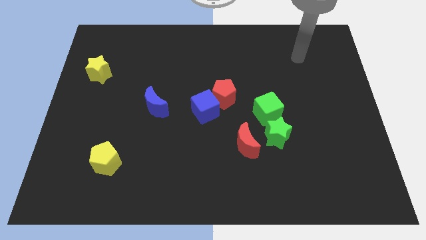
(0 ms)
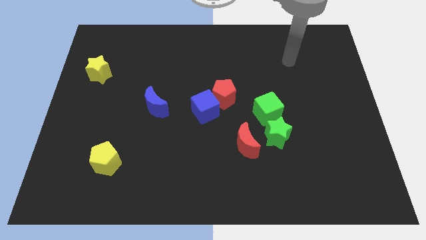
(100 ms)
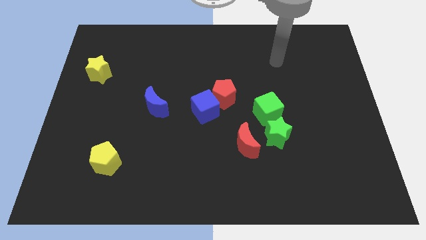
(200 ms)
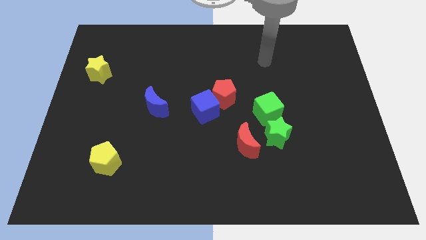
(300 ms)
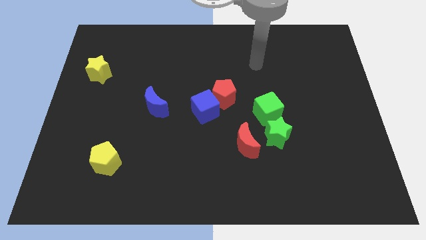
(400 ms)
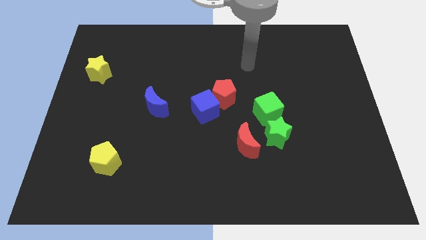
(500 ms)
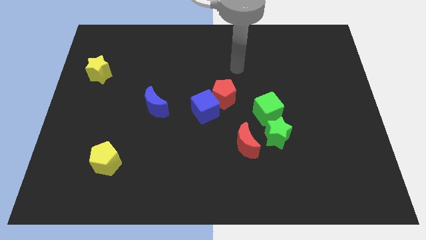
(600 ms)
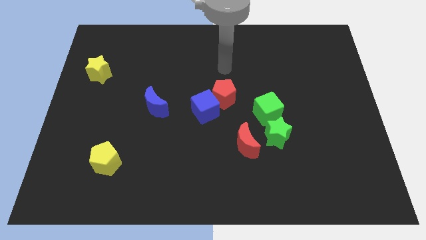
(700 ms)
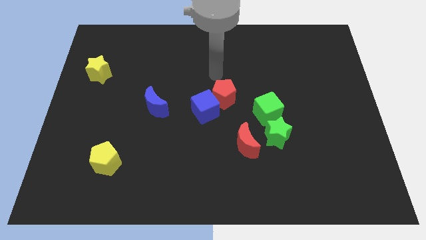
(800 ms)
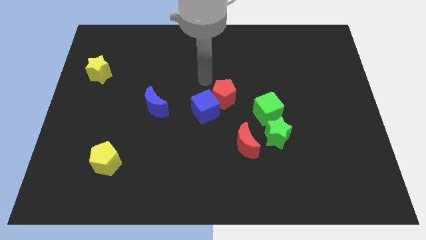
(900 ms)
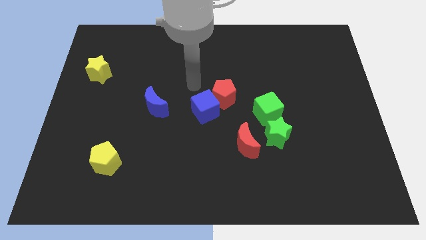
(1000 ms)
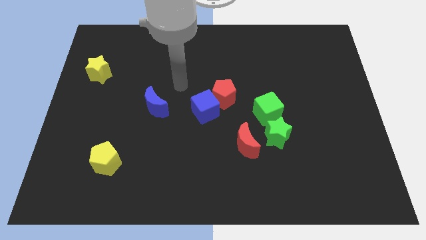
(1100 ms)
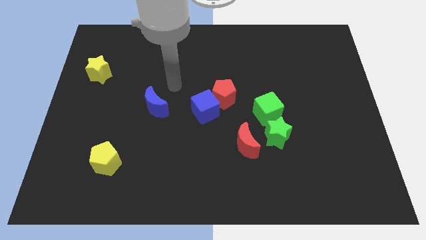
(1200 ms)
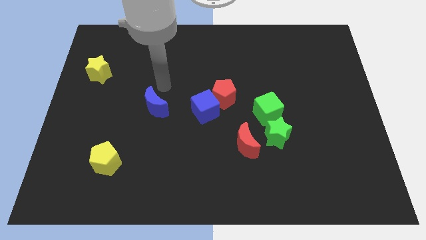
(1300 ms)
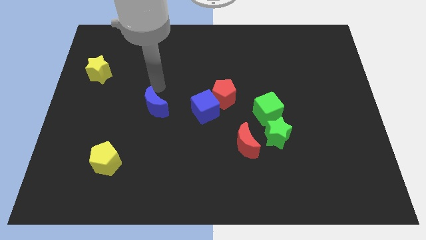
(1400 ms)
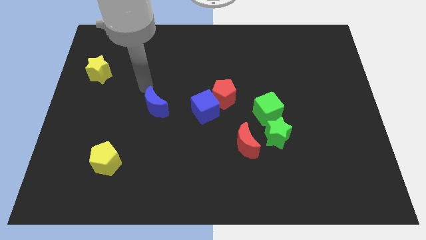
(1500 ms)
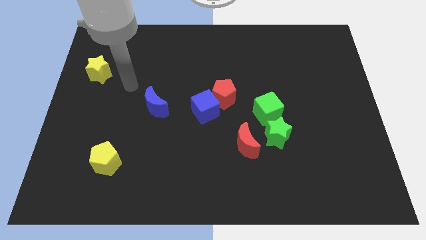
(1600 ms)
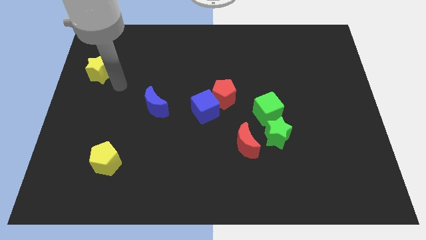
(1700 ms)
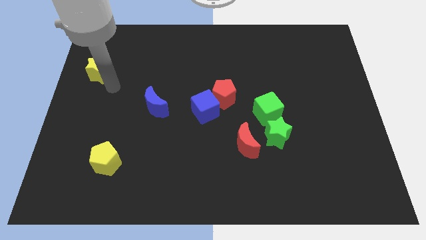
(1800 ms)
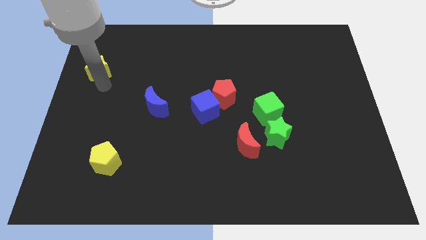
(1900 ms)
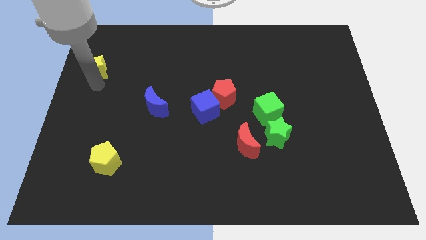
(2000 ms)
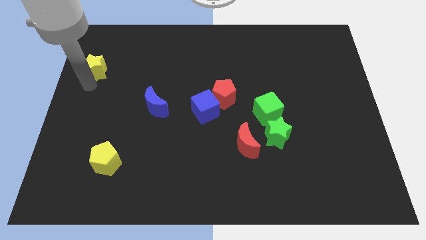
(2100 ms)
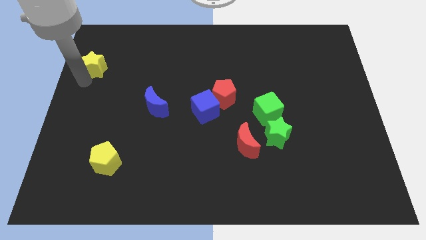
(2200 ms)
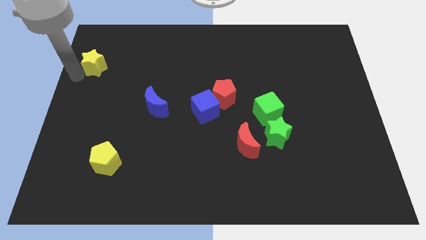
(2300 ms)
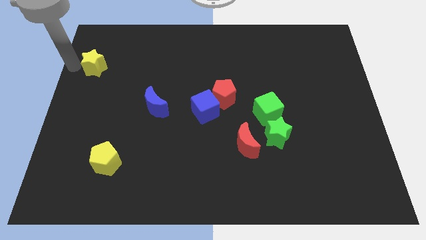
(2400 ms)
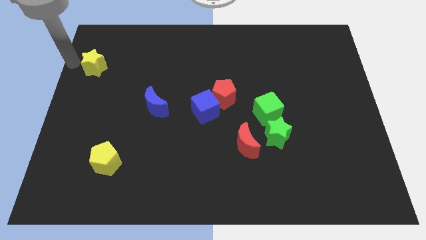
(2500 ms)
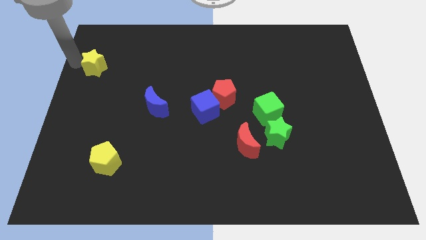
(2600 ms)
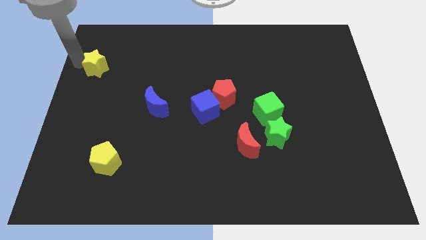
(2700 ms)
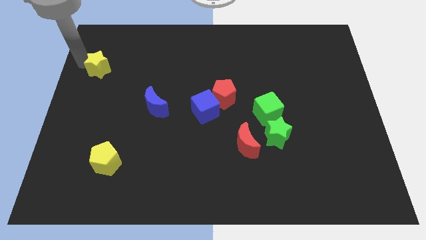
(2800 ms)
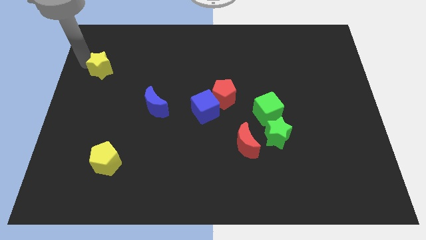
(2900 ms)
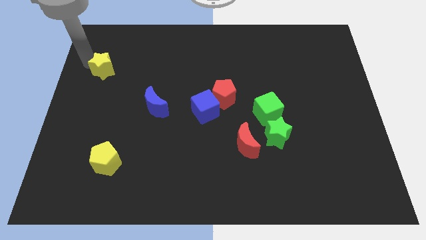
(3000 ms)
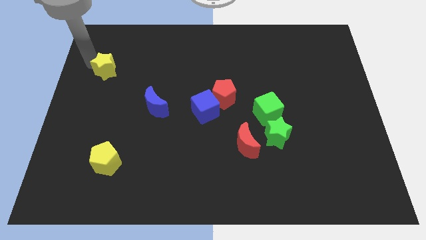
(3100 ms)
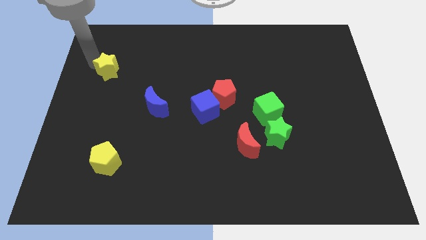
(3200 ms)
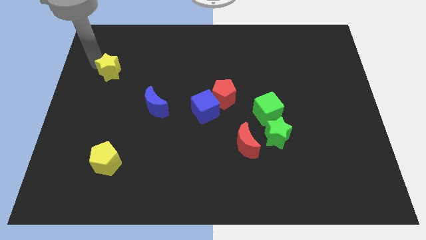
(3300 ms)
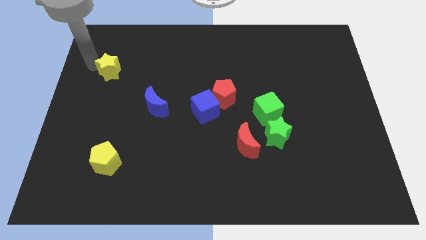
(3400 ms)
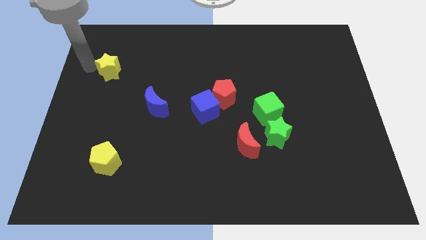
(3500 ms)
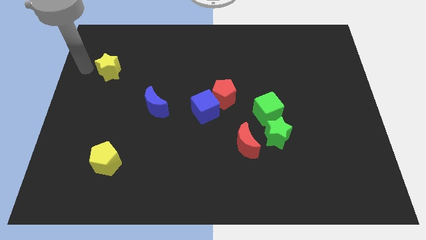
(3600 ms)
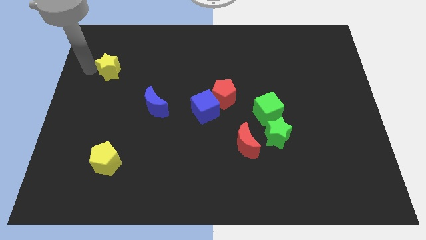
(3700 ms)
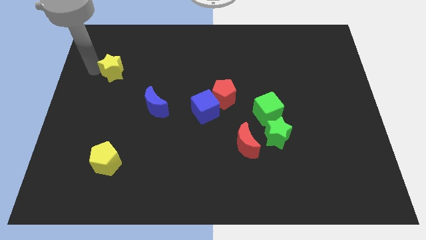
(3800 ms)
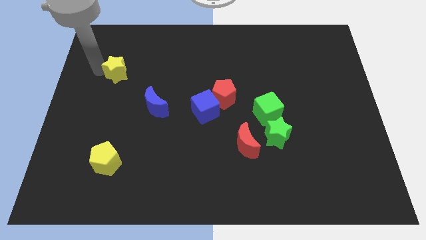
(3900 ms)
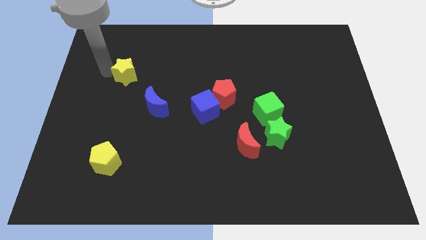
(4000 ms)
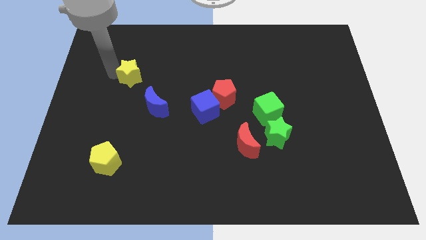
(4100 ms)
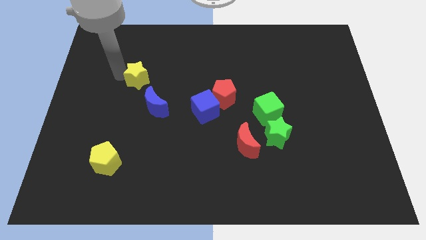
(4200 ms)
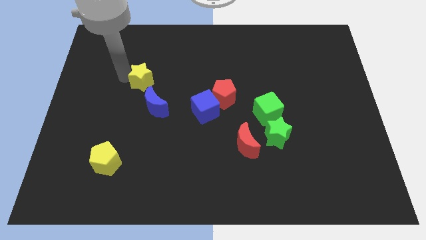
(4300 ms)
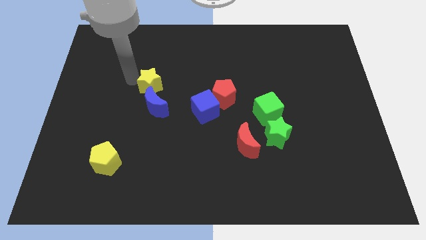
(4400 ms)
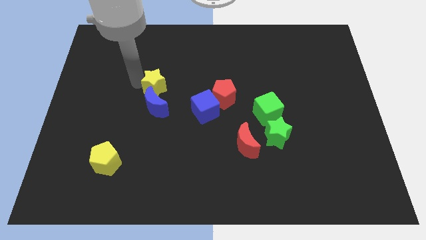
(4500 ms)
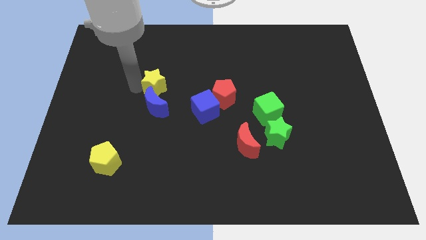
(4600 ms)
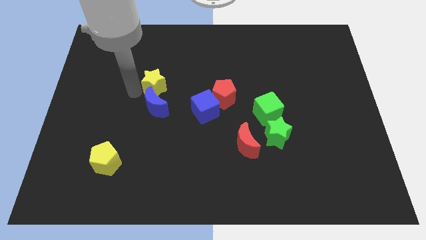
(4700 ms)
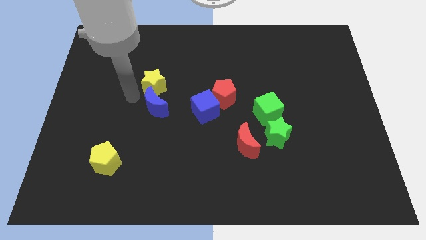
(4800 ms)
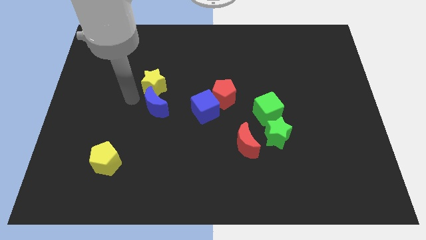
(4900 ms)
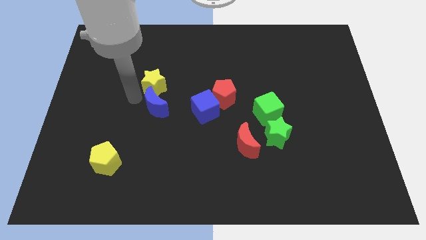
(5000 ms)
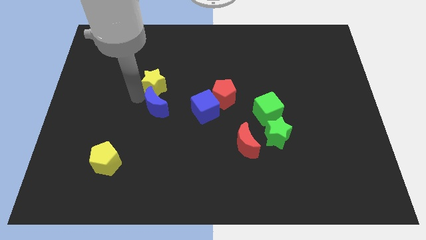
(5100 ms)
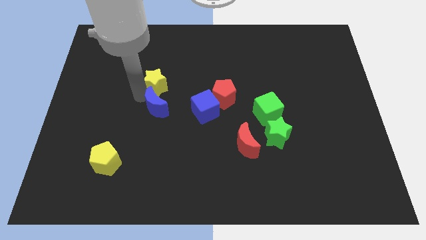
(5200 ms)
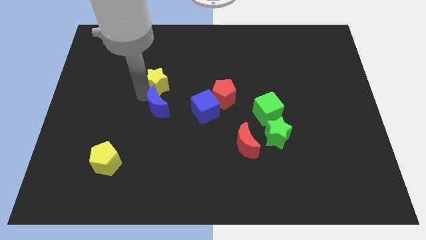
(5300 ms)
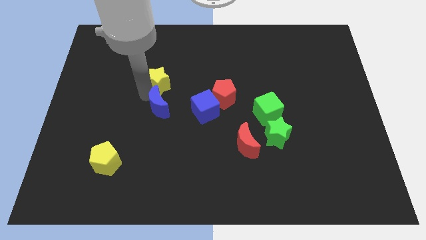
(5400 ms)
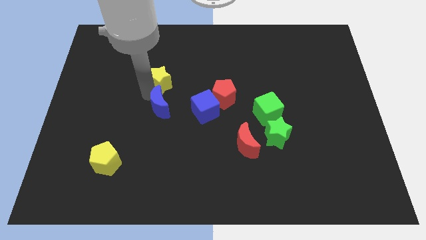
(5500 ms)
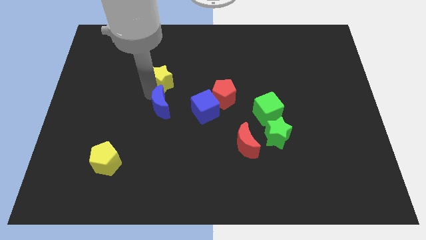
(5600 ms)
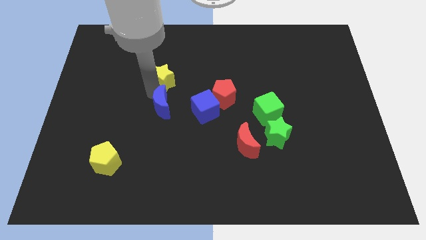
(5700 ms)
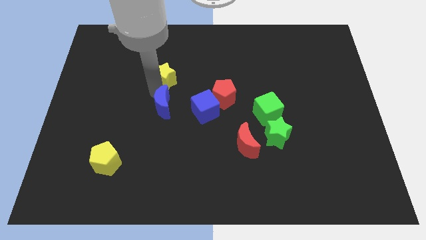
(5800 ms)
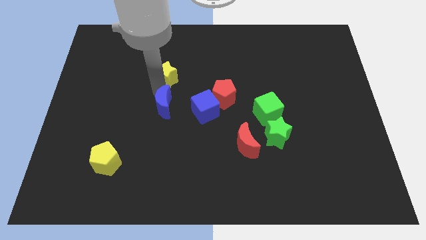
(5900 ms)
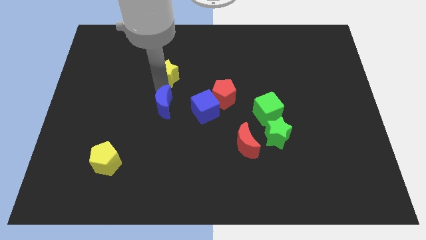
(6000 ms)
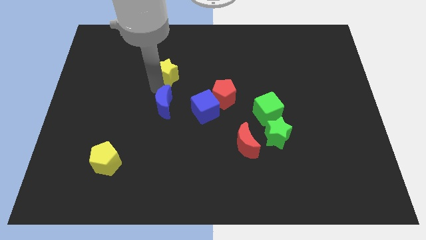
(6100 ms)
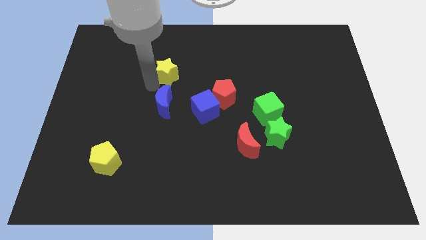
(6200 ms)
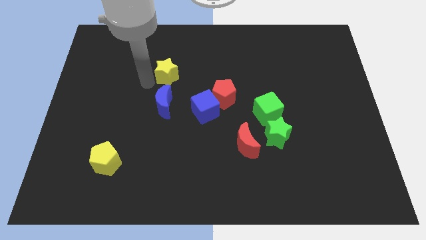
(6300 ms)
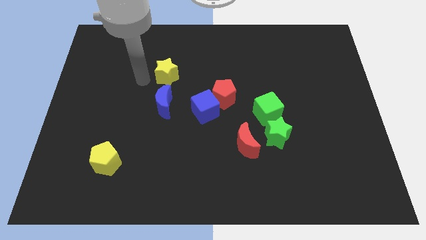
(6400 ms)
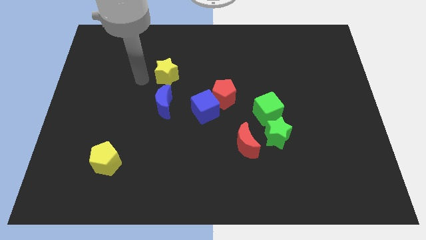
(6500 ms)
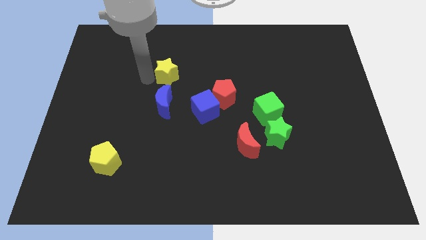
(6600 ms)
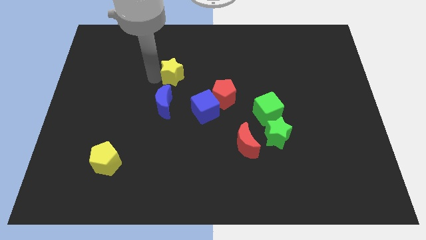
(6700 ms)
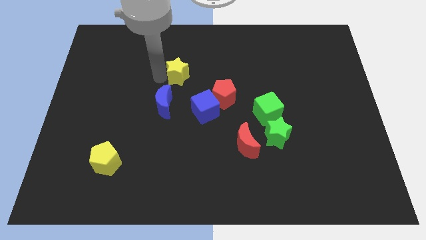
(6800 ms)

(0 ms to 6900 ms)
push the yellow star to the right

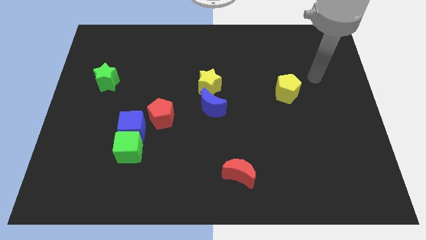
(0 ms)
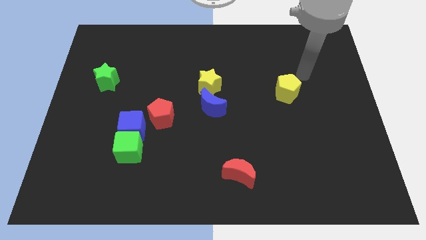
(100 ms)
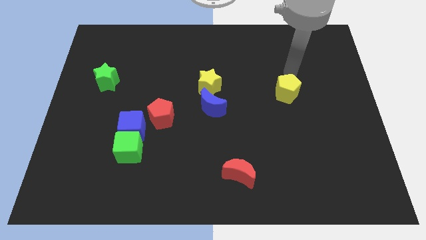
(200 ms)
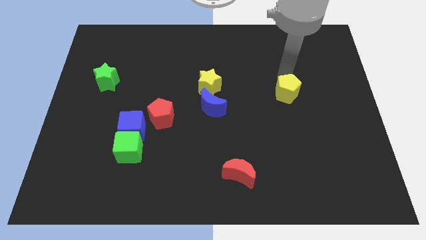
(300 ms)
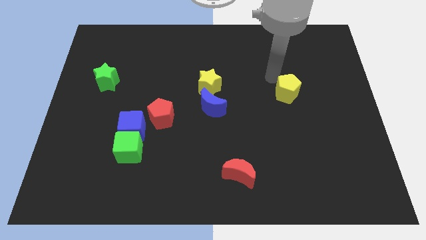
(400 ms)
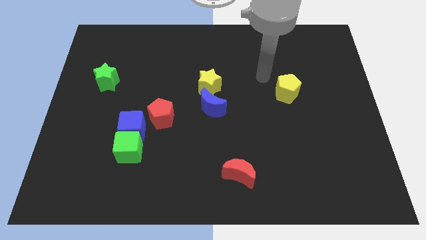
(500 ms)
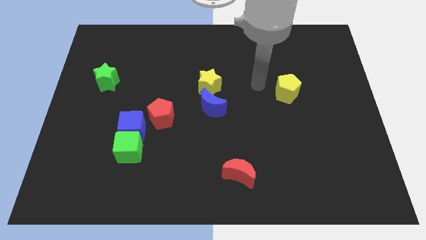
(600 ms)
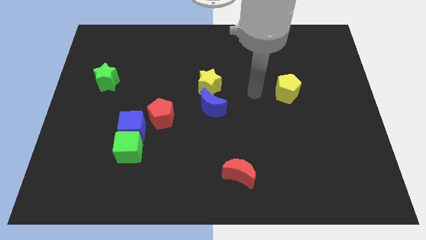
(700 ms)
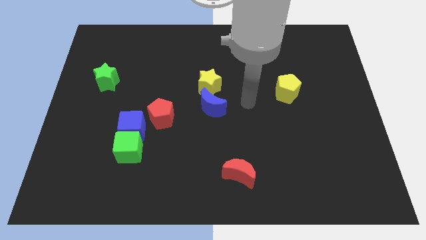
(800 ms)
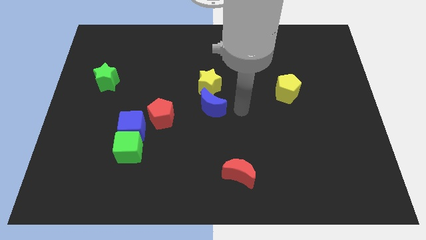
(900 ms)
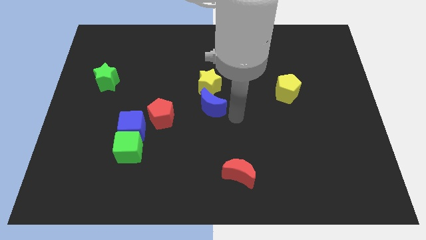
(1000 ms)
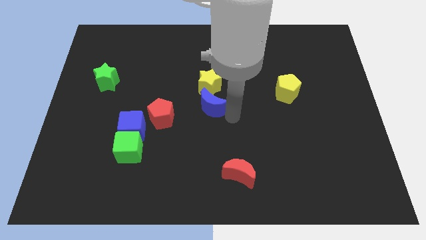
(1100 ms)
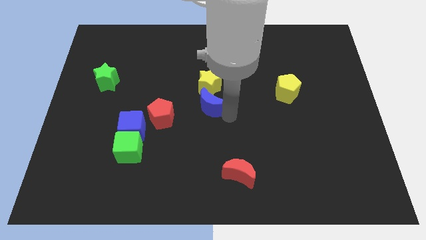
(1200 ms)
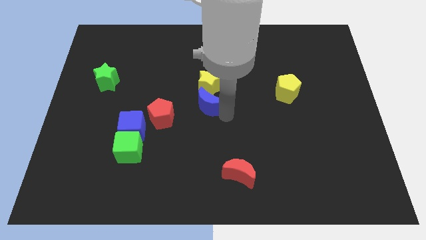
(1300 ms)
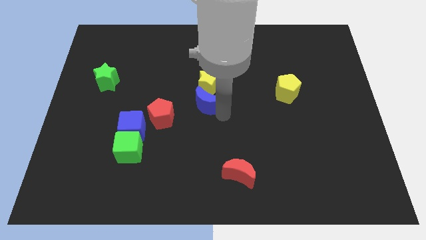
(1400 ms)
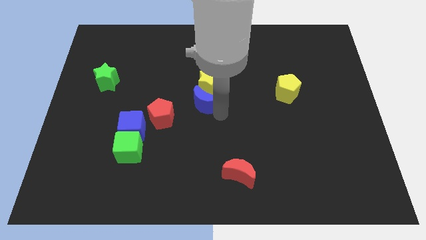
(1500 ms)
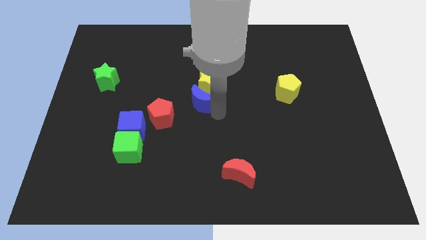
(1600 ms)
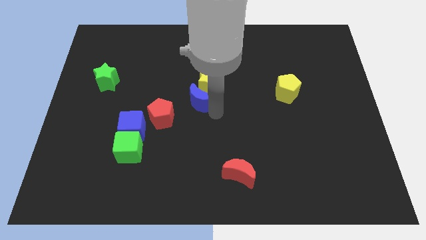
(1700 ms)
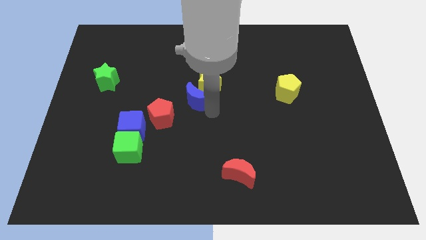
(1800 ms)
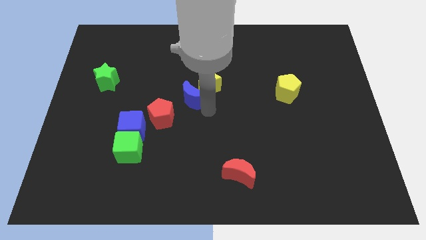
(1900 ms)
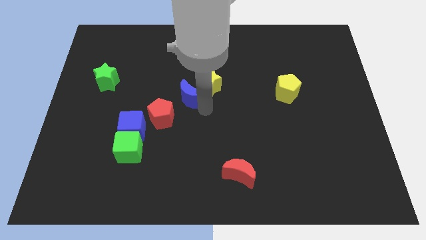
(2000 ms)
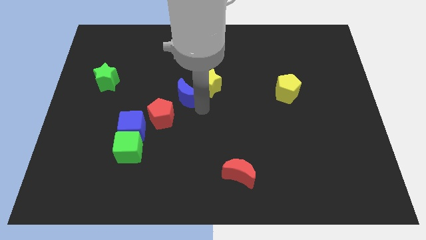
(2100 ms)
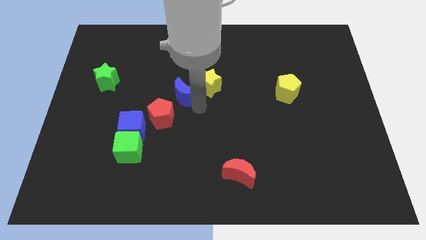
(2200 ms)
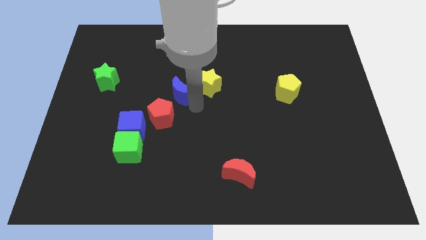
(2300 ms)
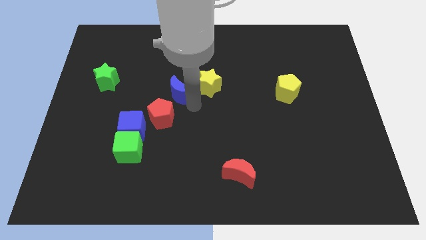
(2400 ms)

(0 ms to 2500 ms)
slide the blue moon left somewhat
